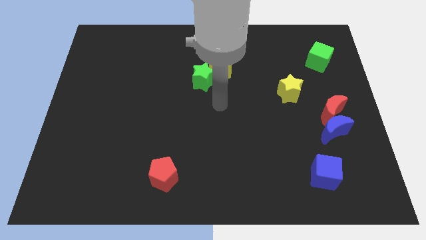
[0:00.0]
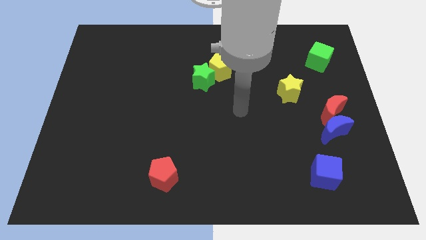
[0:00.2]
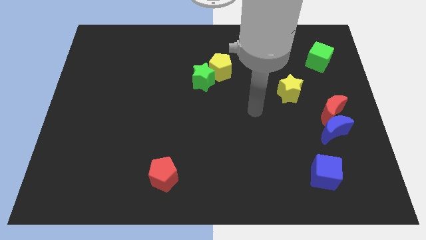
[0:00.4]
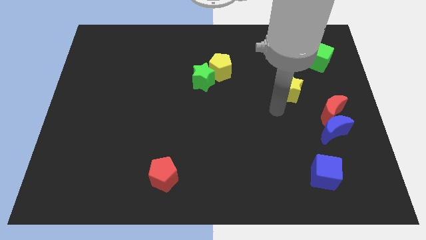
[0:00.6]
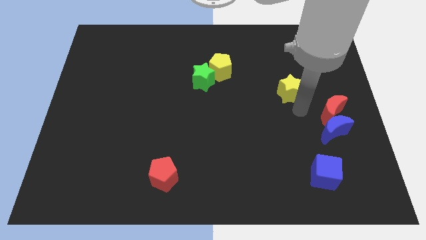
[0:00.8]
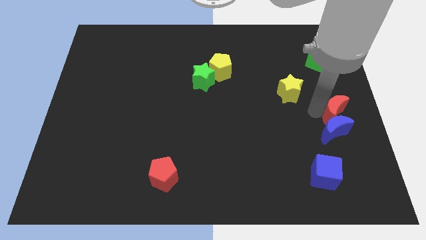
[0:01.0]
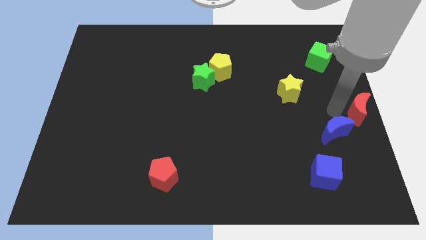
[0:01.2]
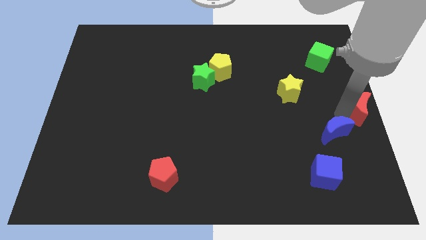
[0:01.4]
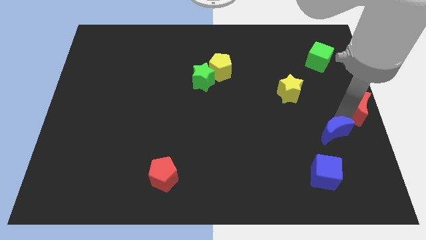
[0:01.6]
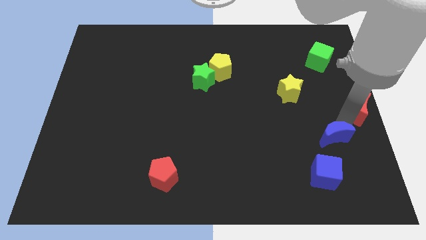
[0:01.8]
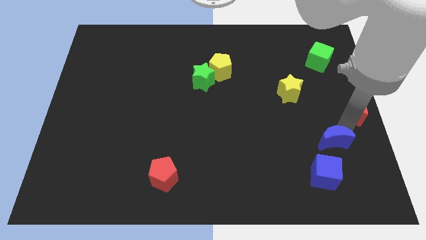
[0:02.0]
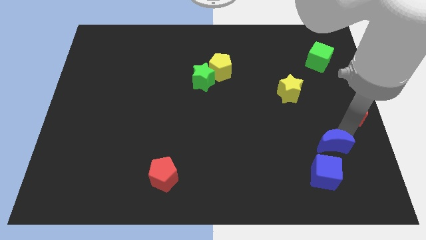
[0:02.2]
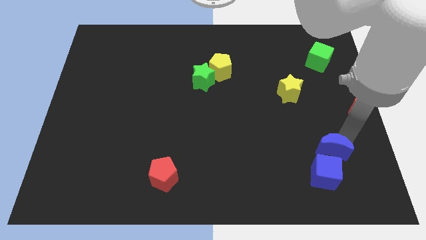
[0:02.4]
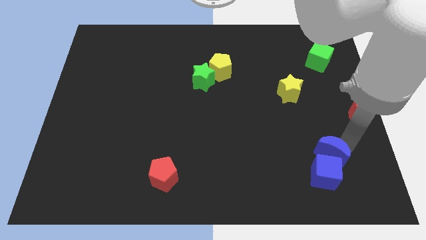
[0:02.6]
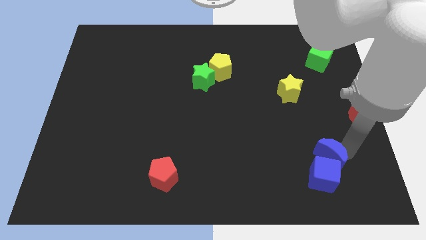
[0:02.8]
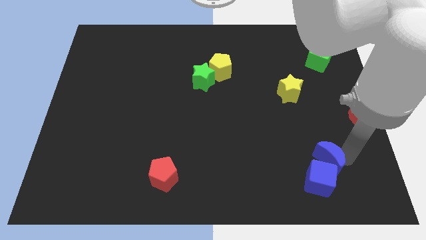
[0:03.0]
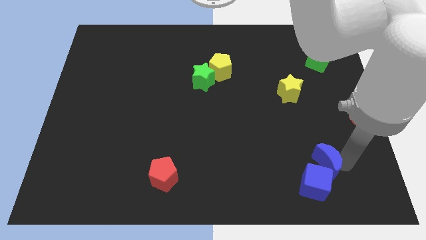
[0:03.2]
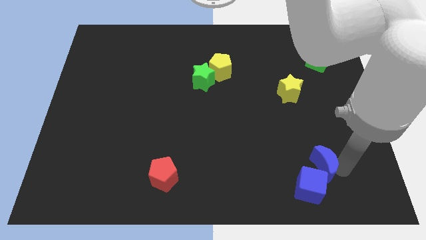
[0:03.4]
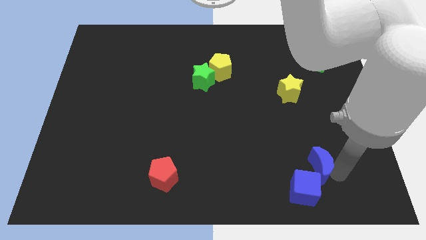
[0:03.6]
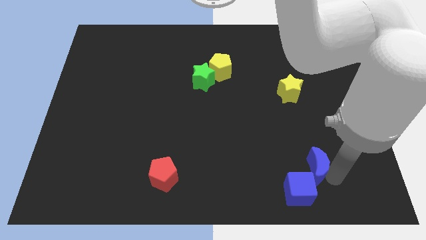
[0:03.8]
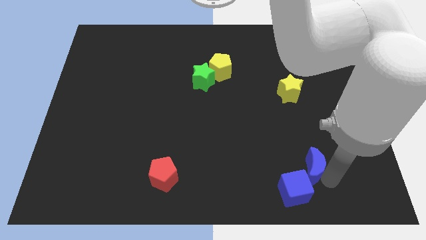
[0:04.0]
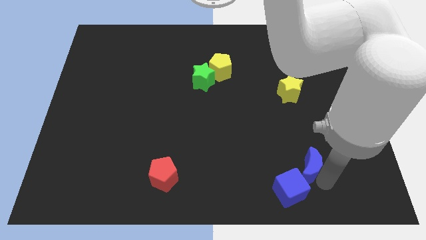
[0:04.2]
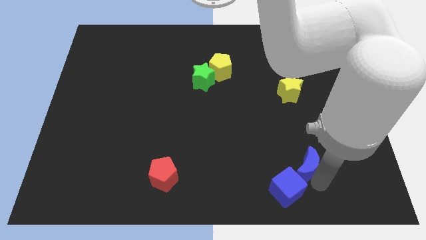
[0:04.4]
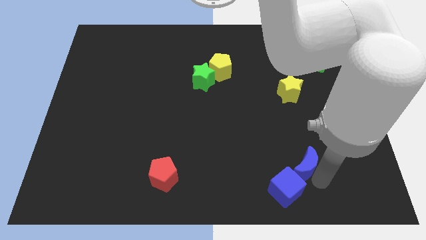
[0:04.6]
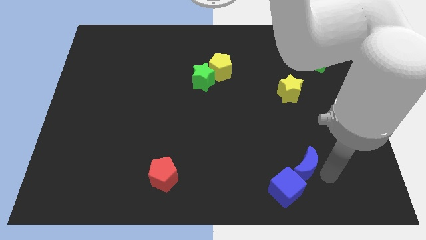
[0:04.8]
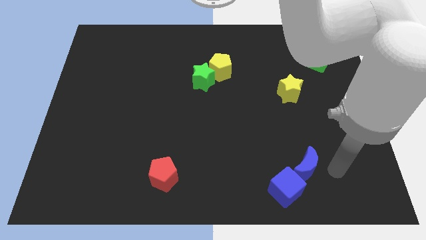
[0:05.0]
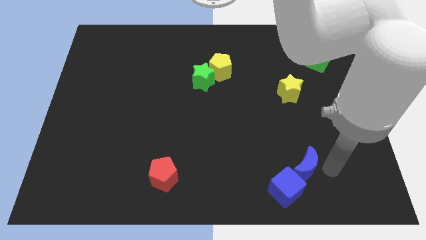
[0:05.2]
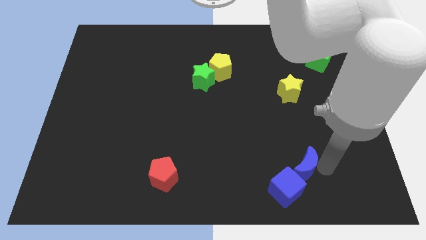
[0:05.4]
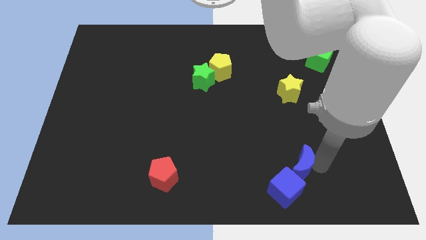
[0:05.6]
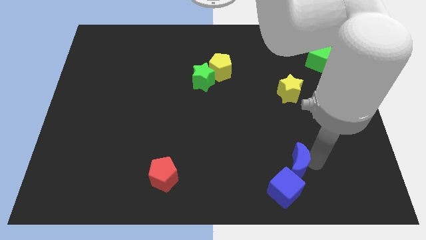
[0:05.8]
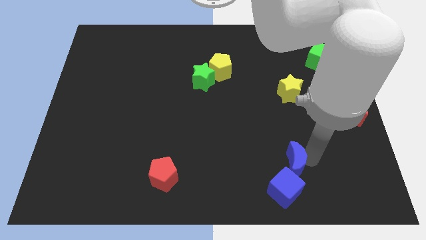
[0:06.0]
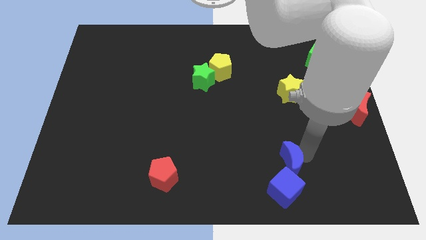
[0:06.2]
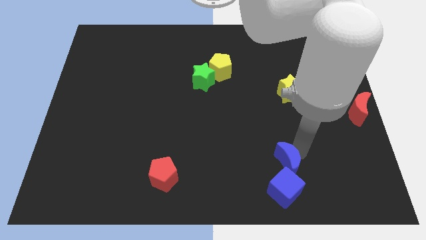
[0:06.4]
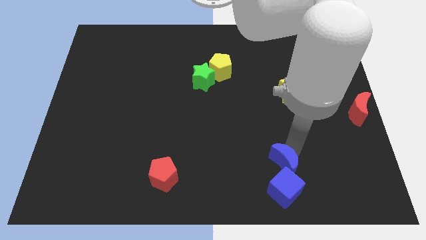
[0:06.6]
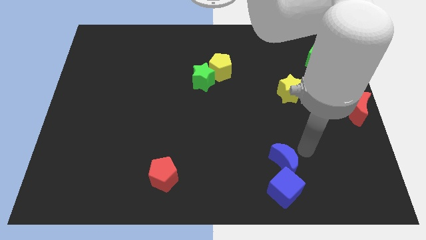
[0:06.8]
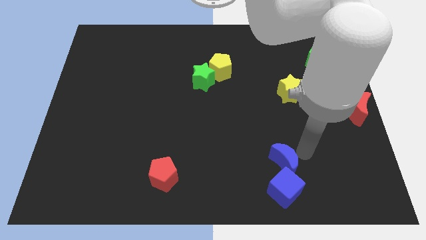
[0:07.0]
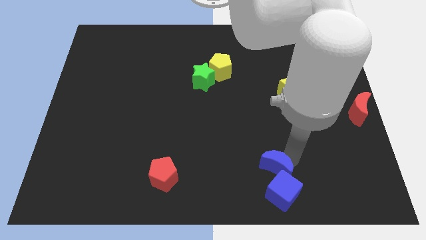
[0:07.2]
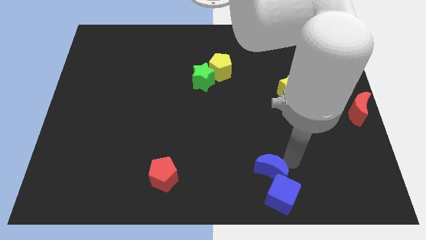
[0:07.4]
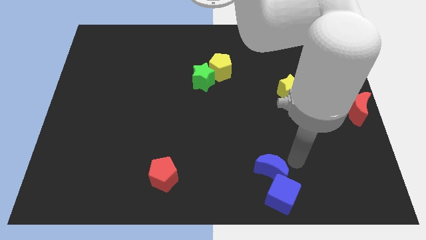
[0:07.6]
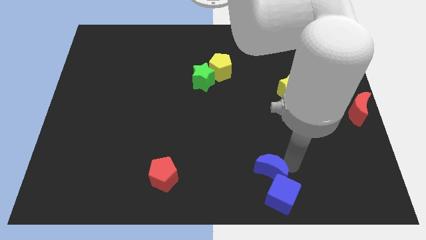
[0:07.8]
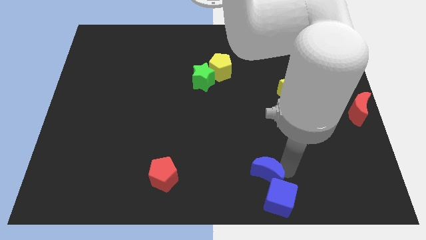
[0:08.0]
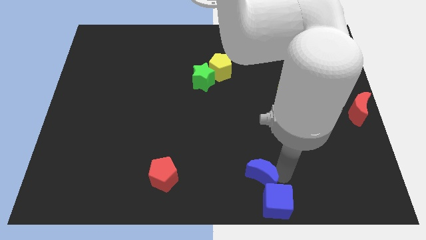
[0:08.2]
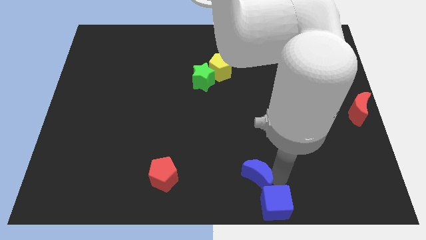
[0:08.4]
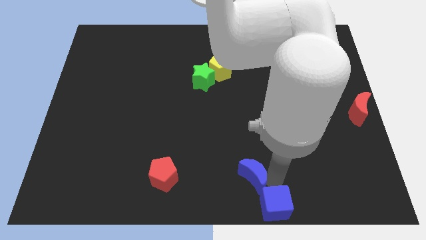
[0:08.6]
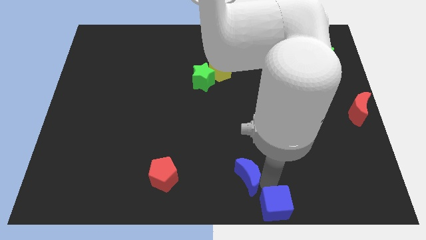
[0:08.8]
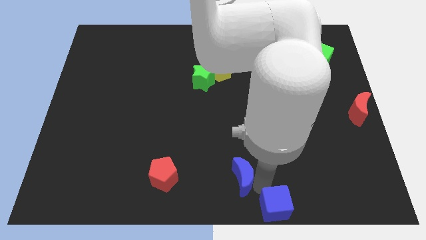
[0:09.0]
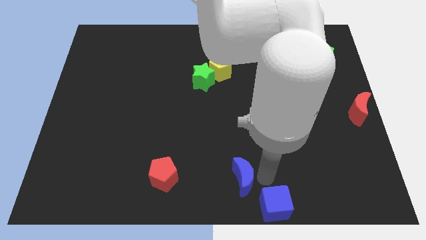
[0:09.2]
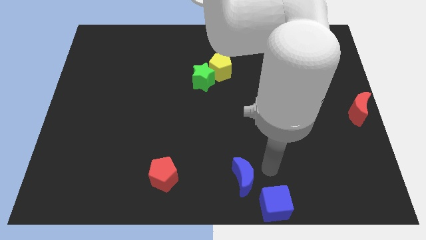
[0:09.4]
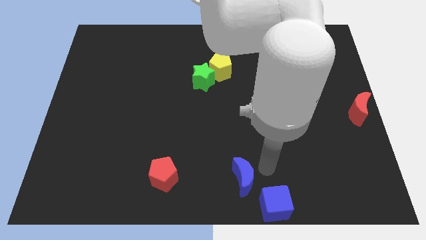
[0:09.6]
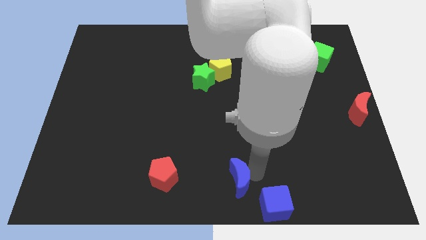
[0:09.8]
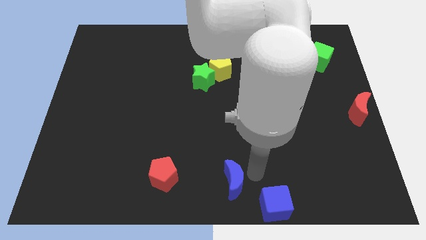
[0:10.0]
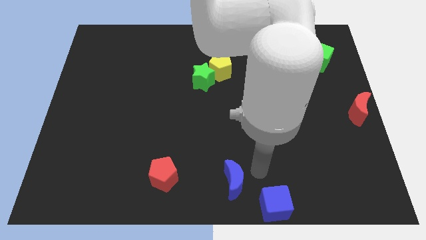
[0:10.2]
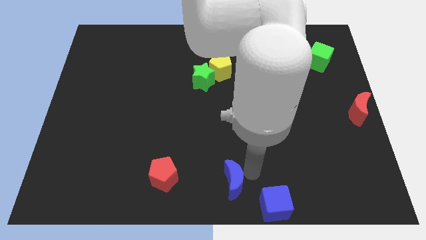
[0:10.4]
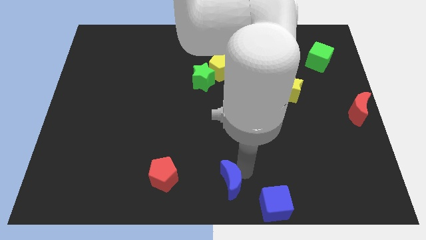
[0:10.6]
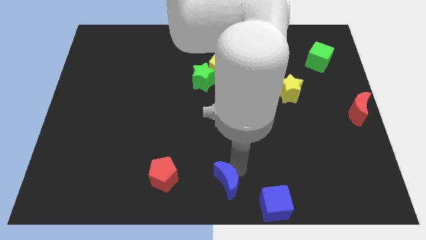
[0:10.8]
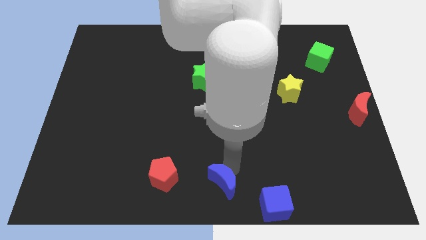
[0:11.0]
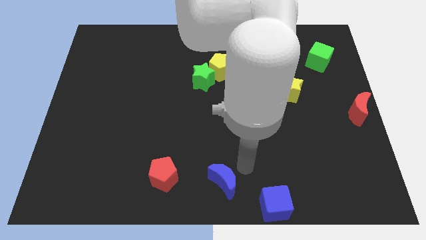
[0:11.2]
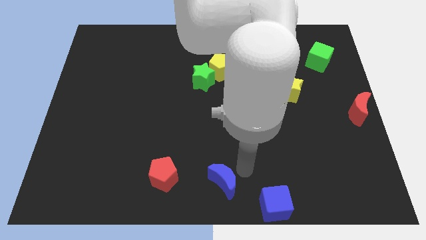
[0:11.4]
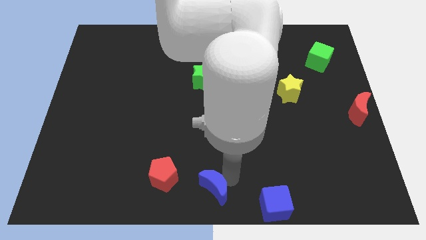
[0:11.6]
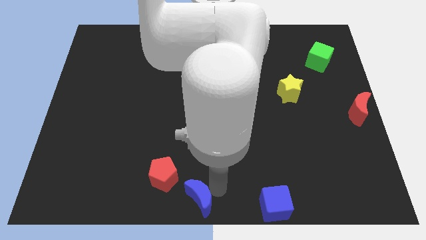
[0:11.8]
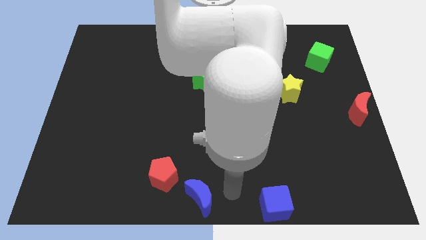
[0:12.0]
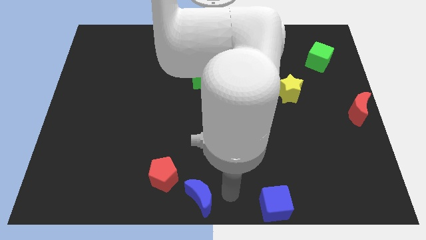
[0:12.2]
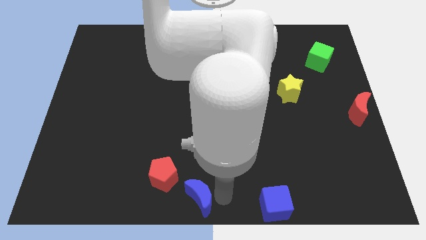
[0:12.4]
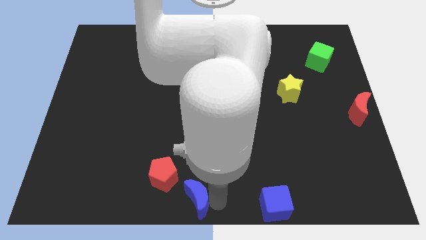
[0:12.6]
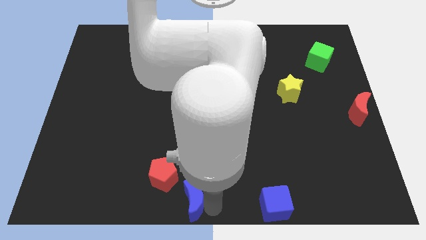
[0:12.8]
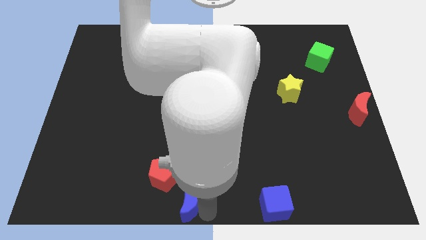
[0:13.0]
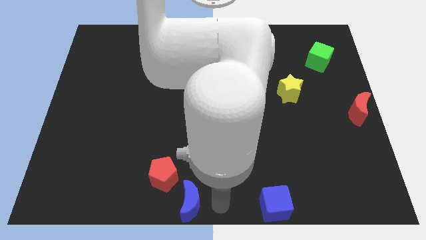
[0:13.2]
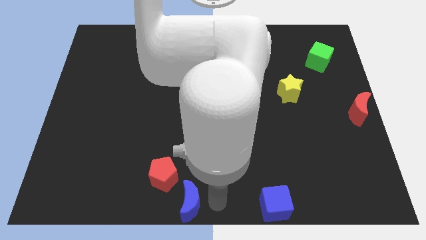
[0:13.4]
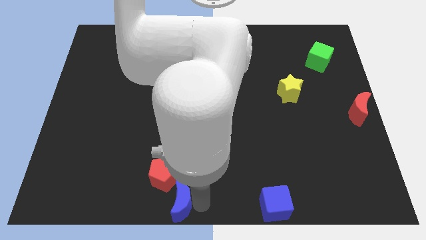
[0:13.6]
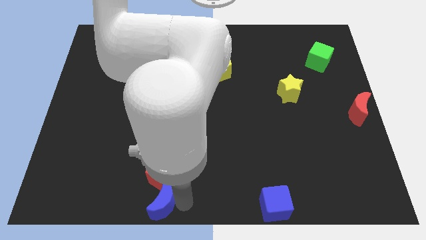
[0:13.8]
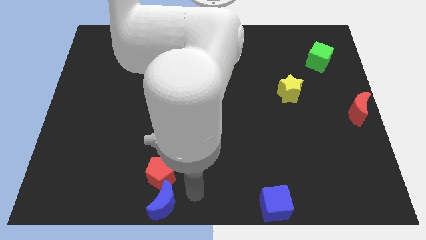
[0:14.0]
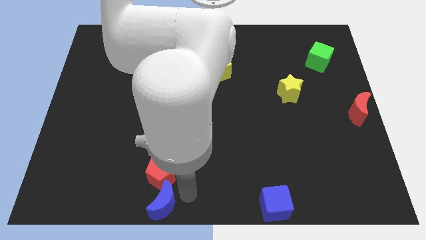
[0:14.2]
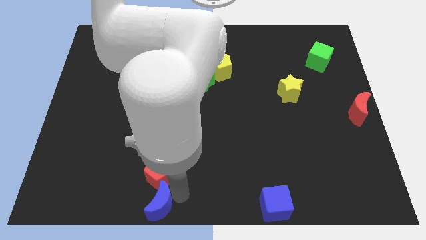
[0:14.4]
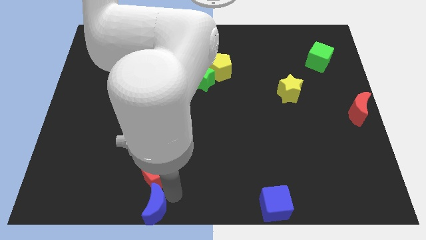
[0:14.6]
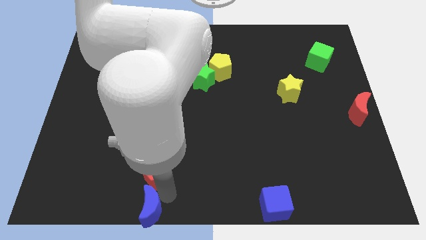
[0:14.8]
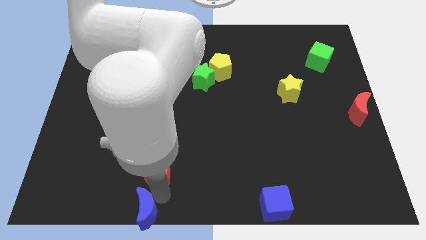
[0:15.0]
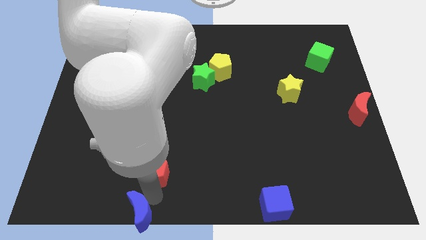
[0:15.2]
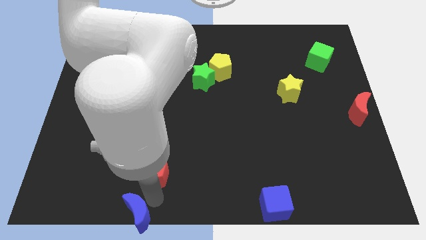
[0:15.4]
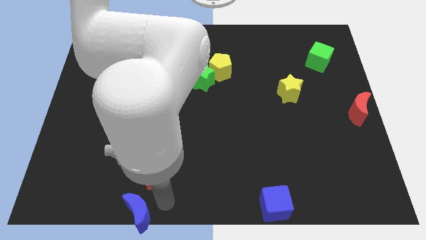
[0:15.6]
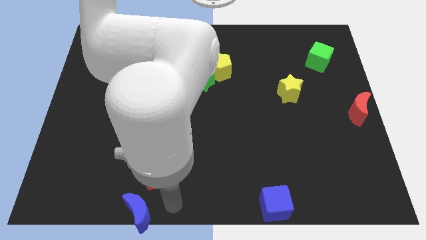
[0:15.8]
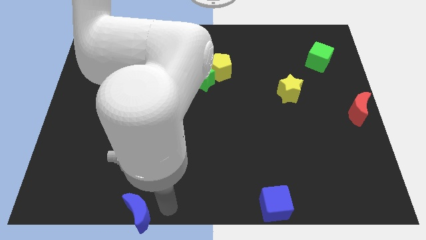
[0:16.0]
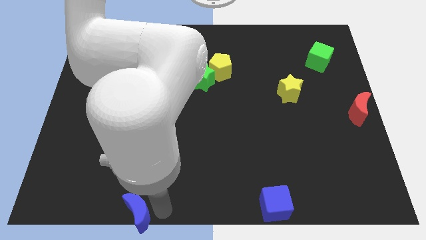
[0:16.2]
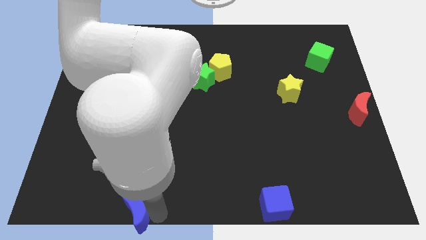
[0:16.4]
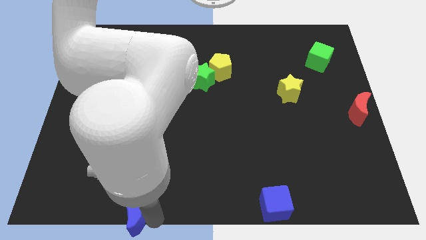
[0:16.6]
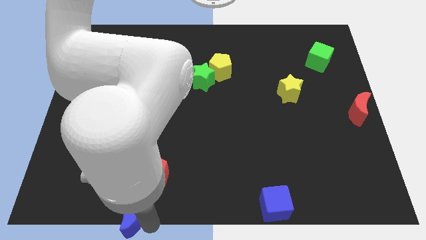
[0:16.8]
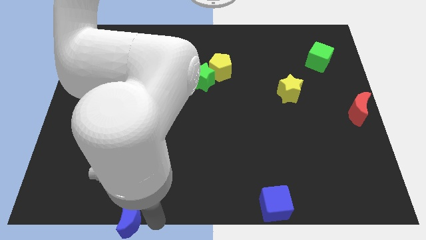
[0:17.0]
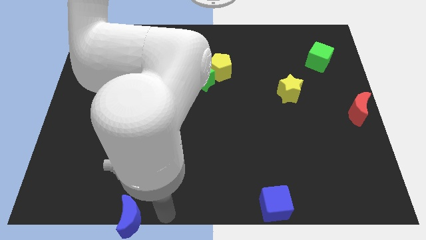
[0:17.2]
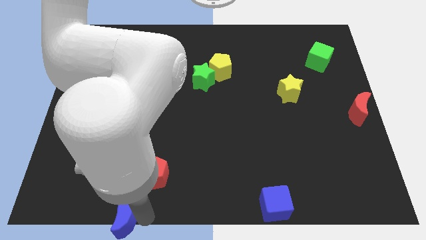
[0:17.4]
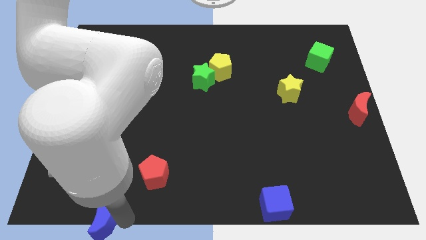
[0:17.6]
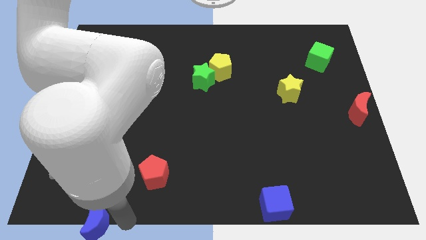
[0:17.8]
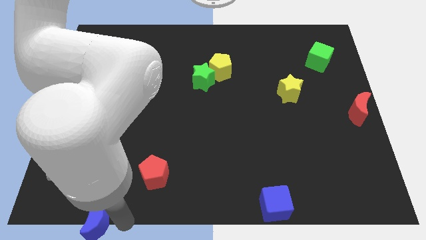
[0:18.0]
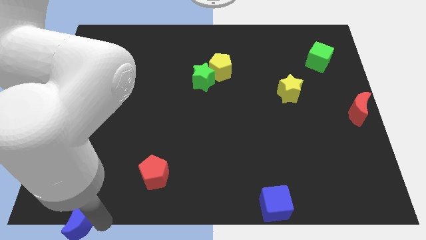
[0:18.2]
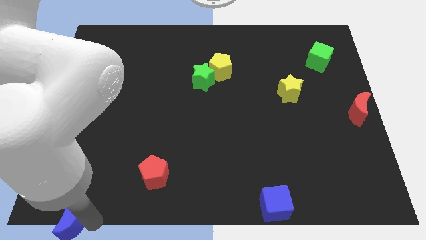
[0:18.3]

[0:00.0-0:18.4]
slide the blue moon to the bottom left
